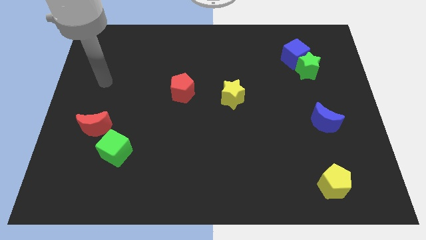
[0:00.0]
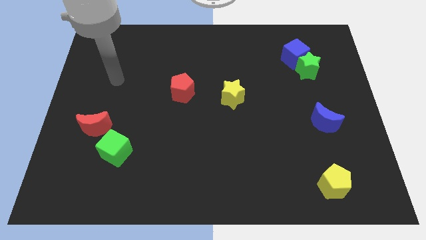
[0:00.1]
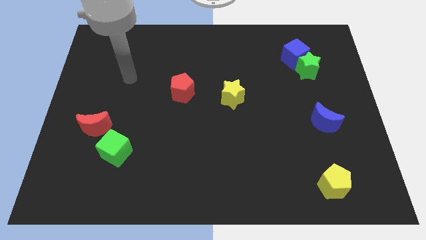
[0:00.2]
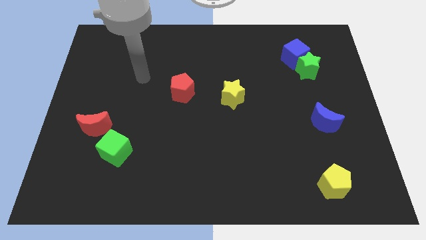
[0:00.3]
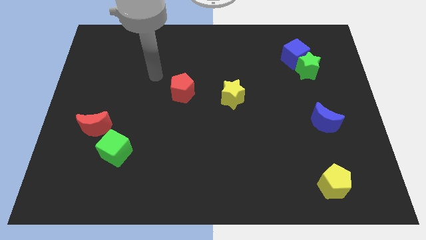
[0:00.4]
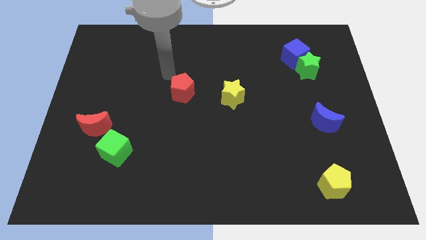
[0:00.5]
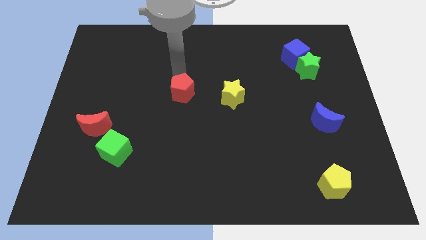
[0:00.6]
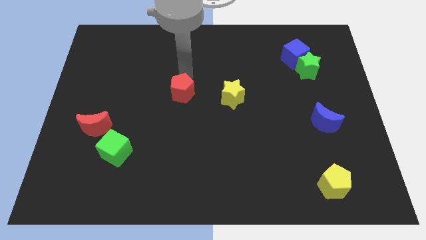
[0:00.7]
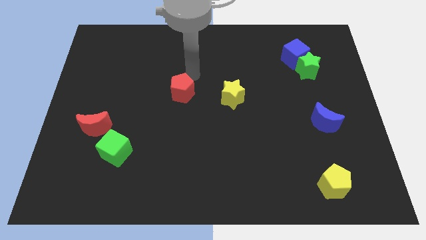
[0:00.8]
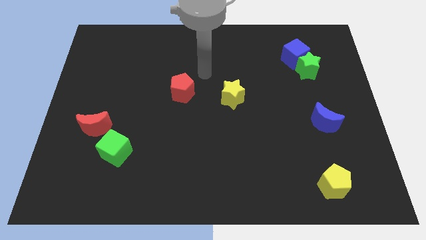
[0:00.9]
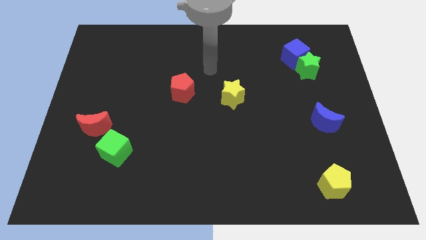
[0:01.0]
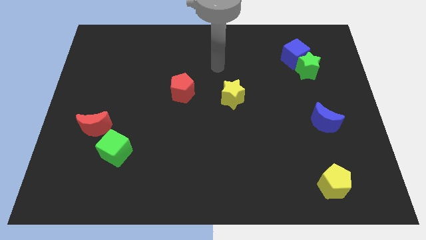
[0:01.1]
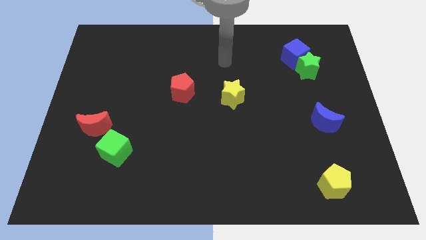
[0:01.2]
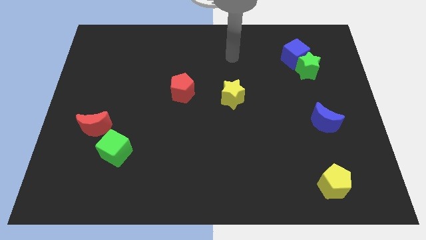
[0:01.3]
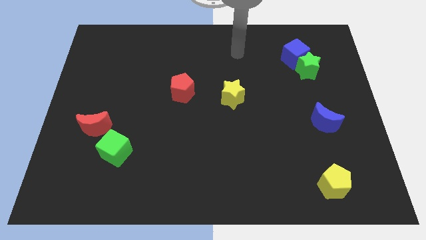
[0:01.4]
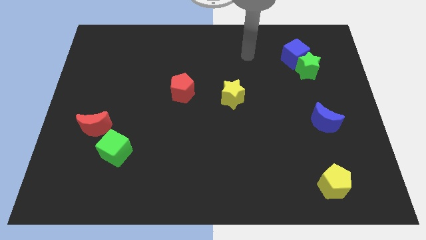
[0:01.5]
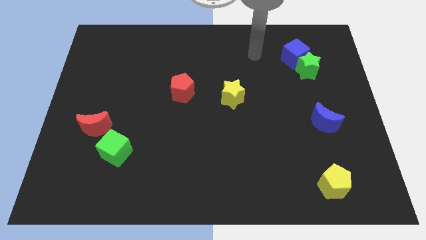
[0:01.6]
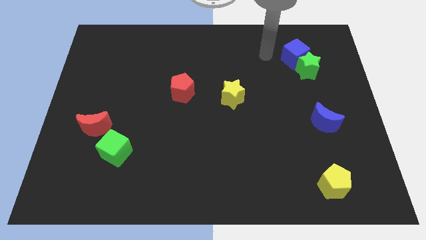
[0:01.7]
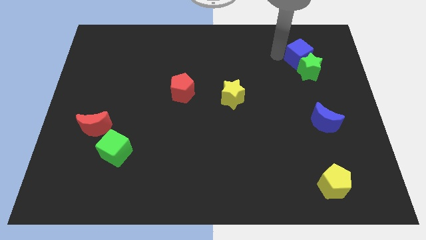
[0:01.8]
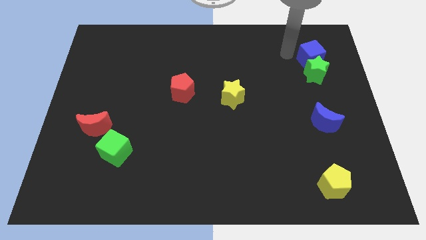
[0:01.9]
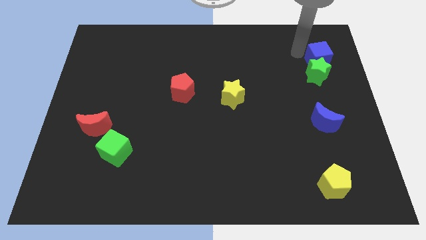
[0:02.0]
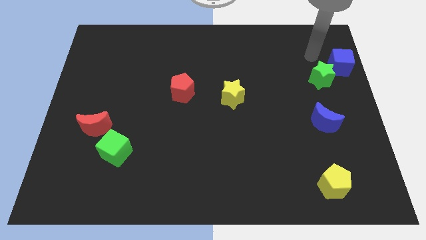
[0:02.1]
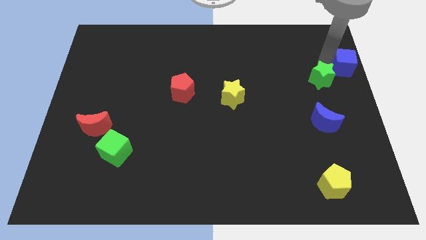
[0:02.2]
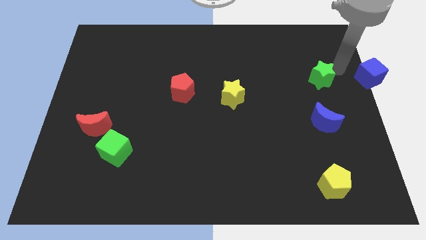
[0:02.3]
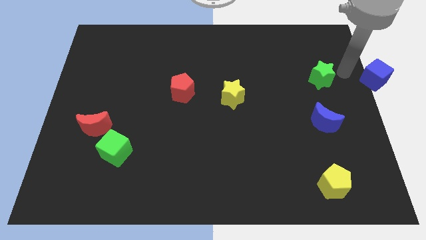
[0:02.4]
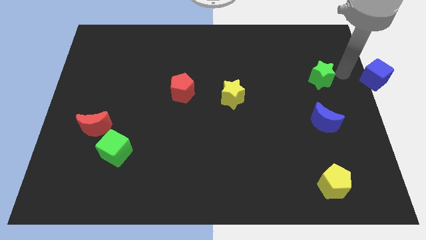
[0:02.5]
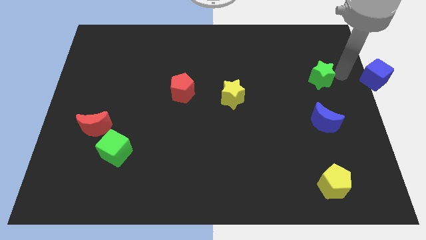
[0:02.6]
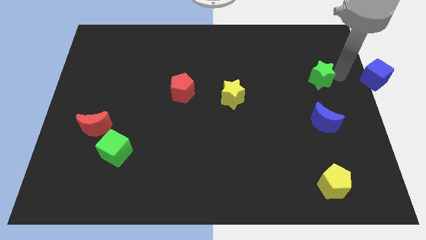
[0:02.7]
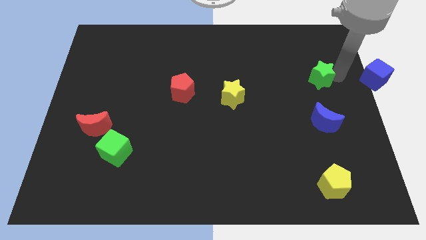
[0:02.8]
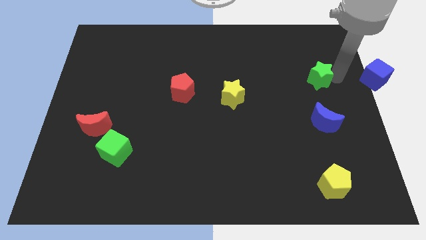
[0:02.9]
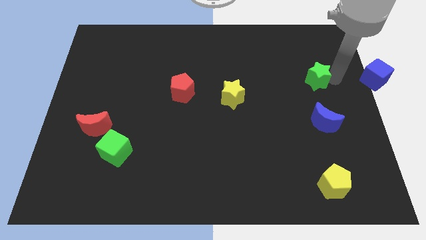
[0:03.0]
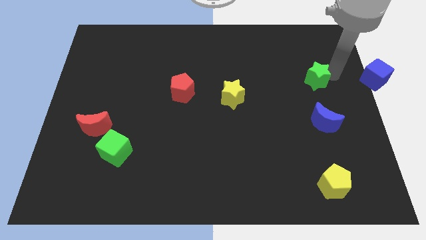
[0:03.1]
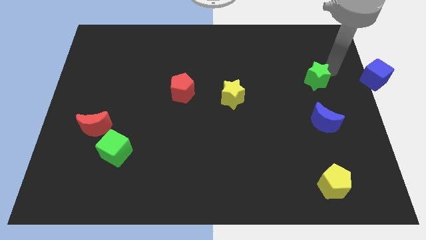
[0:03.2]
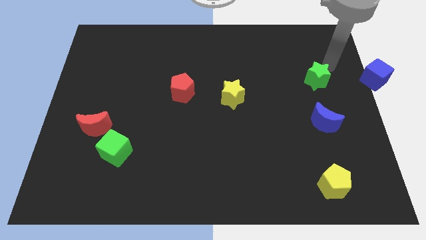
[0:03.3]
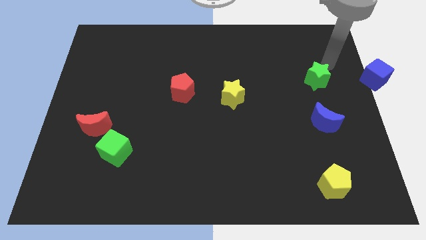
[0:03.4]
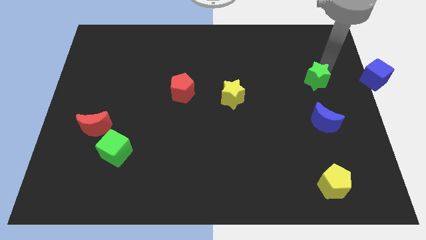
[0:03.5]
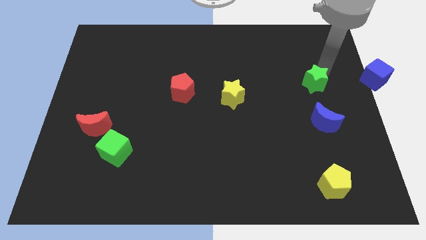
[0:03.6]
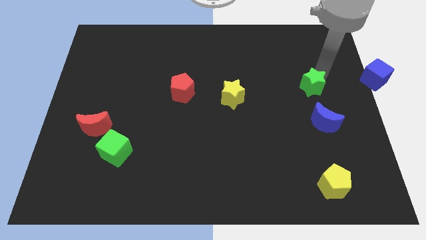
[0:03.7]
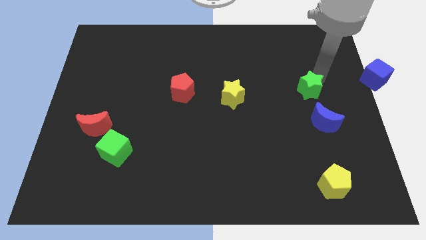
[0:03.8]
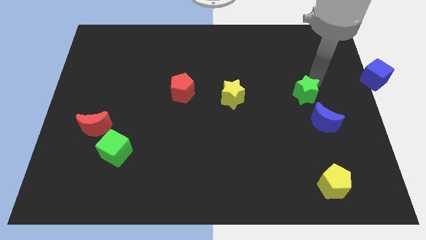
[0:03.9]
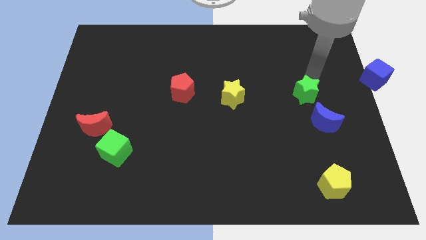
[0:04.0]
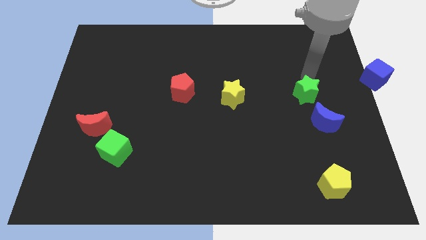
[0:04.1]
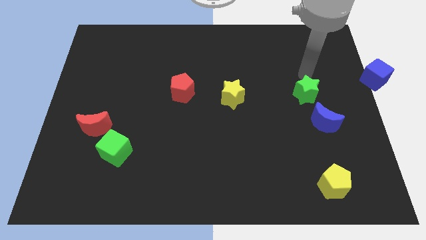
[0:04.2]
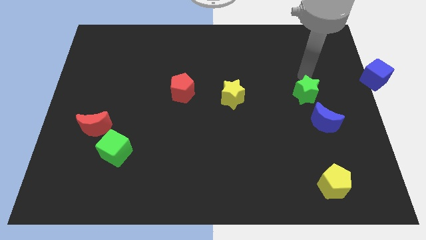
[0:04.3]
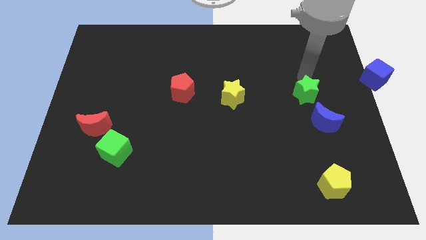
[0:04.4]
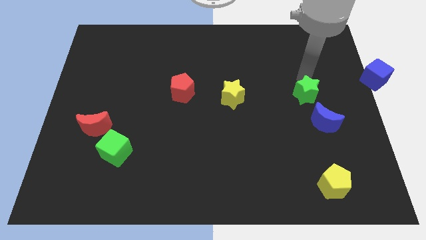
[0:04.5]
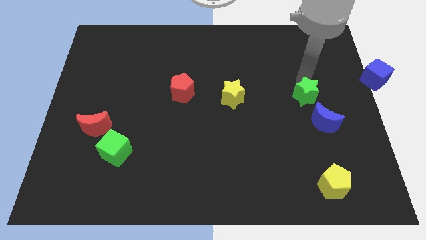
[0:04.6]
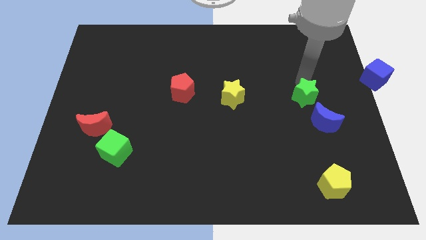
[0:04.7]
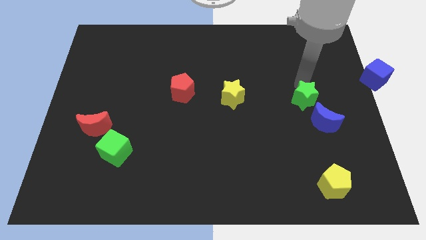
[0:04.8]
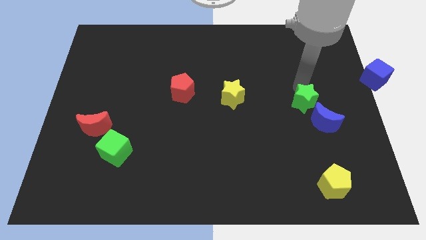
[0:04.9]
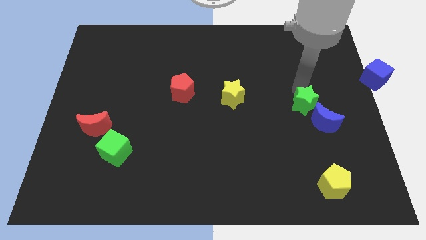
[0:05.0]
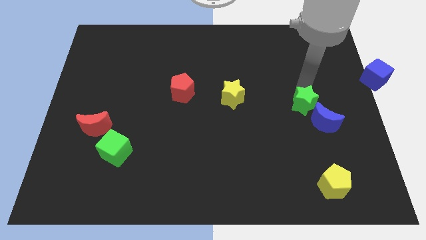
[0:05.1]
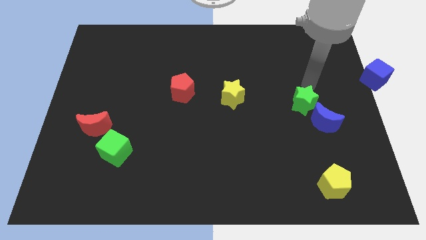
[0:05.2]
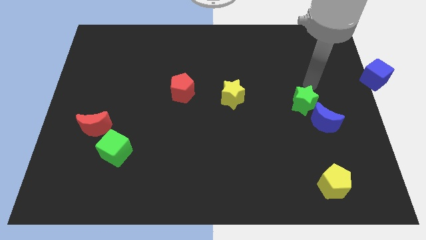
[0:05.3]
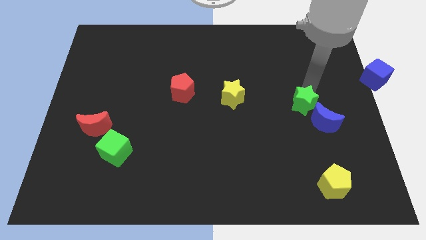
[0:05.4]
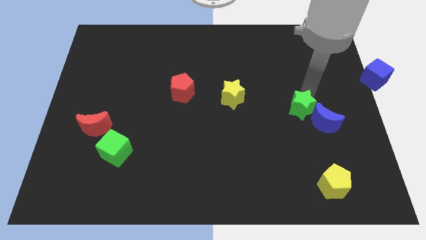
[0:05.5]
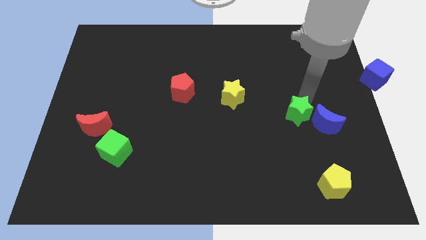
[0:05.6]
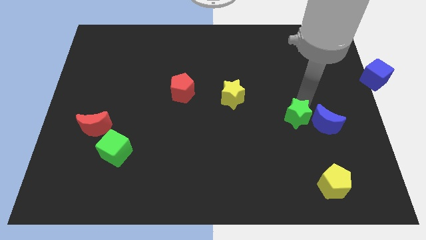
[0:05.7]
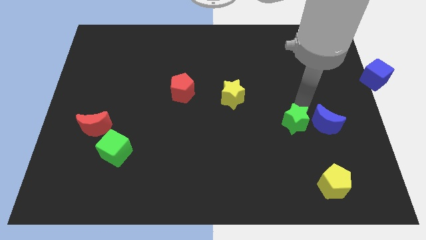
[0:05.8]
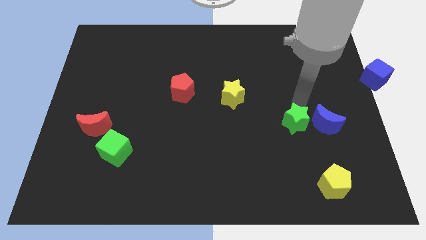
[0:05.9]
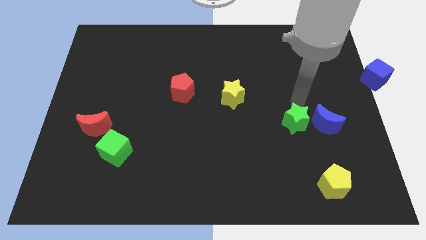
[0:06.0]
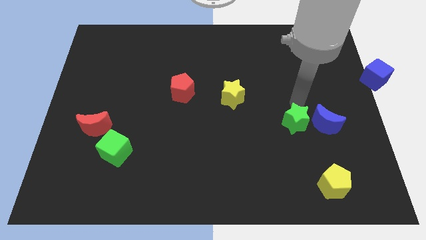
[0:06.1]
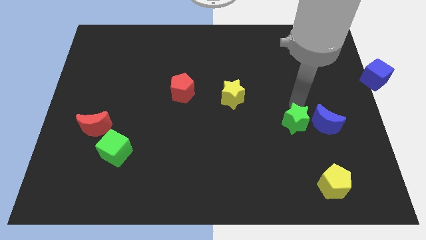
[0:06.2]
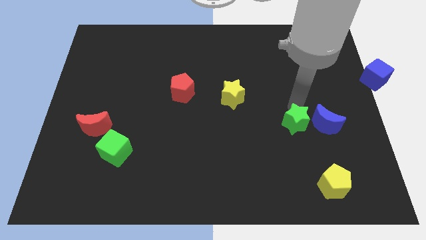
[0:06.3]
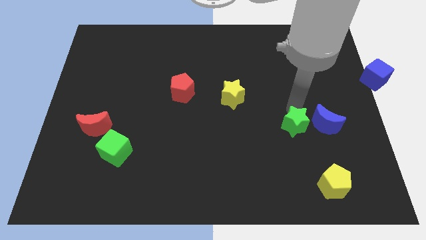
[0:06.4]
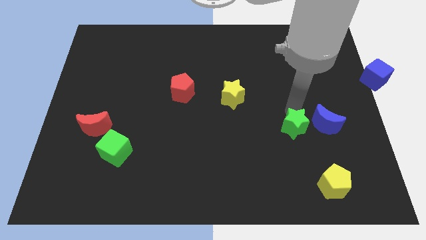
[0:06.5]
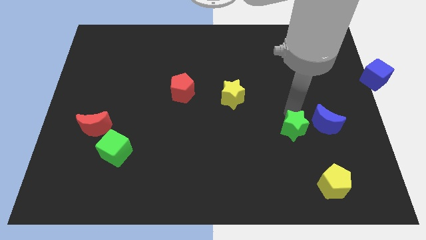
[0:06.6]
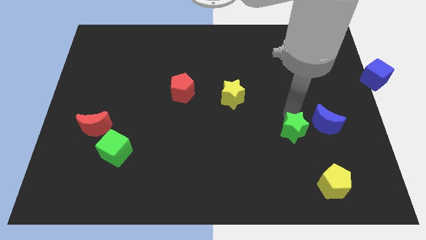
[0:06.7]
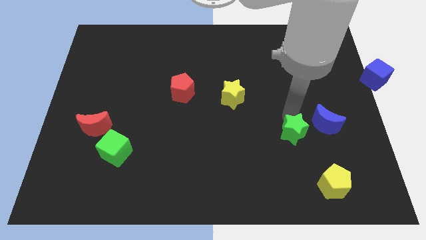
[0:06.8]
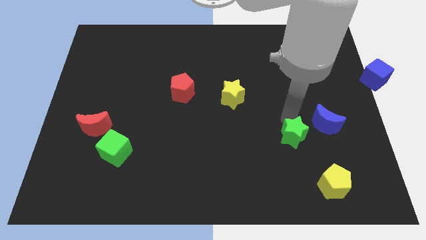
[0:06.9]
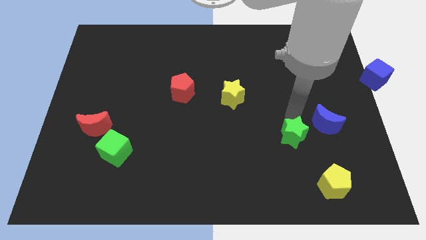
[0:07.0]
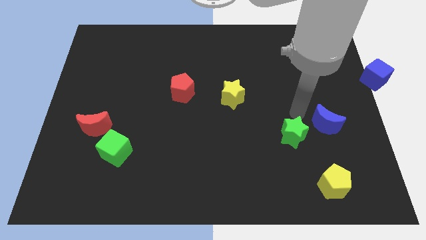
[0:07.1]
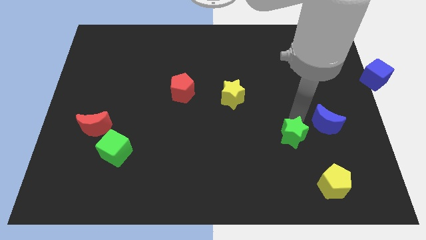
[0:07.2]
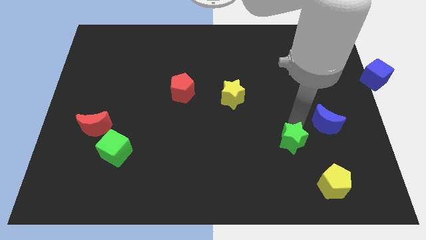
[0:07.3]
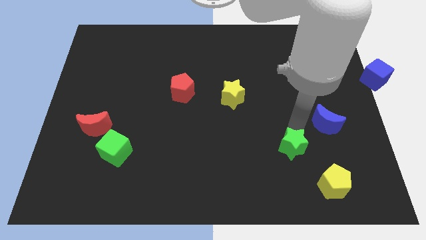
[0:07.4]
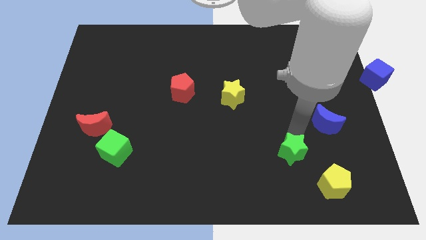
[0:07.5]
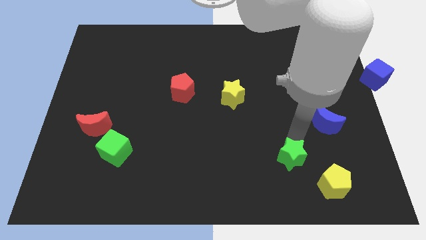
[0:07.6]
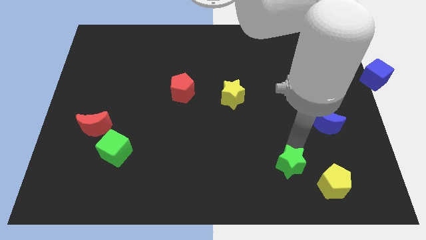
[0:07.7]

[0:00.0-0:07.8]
slide the green star just left of the yellow pentagon
